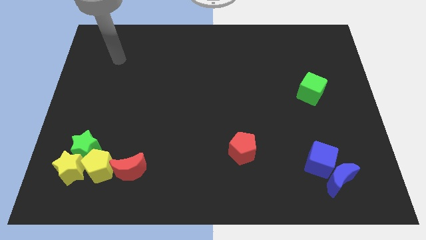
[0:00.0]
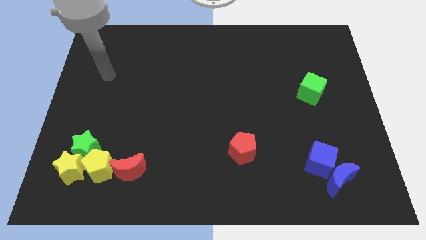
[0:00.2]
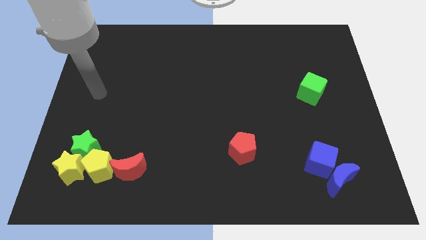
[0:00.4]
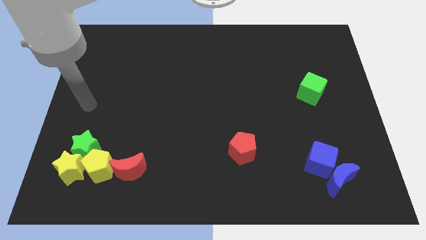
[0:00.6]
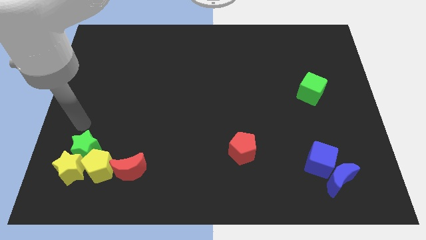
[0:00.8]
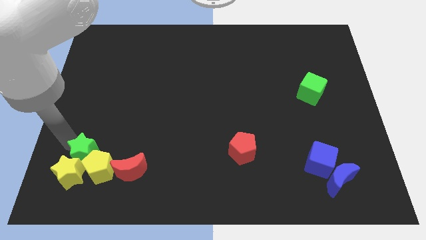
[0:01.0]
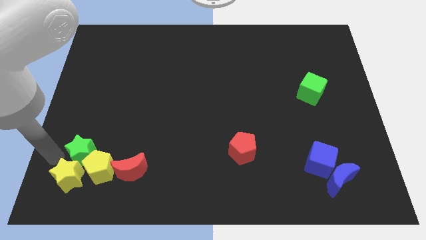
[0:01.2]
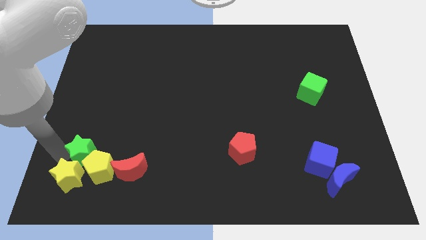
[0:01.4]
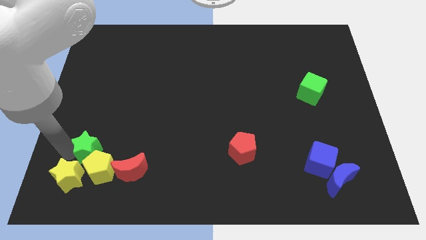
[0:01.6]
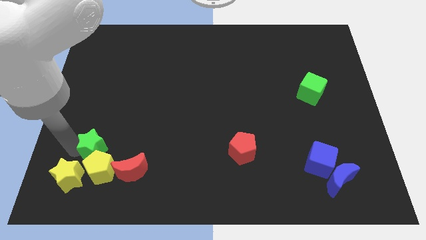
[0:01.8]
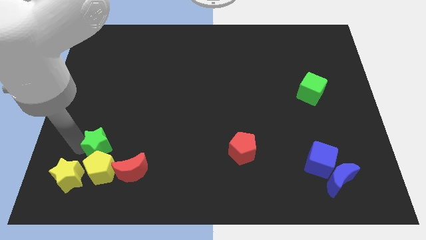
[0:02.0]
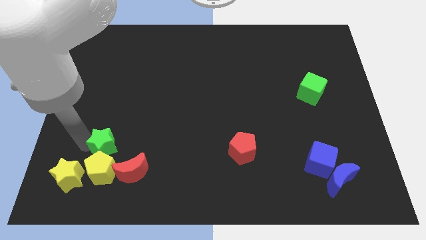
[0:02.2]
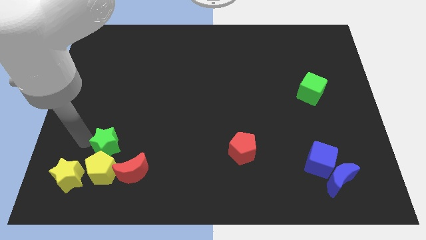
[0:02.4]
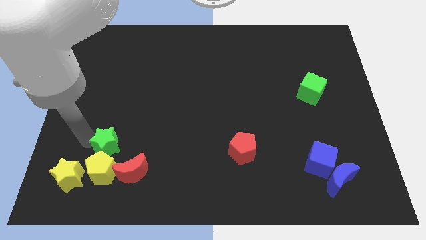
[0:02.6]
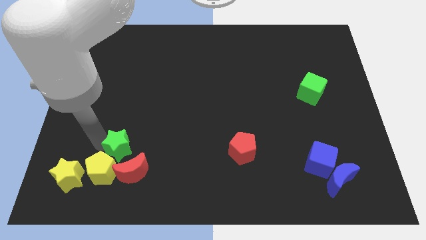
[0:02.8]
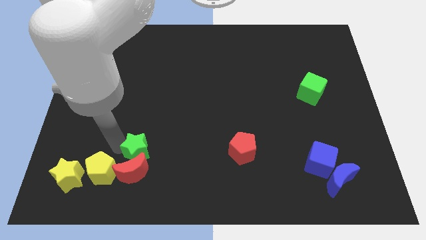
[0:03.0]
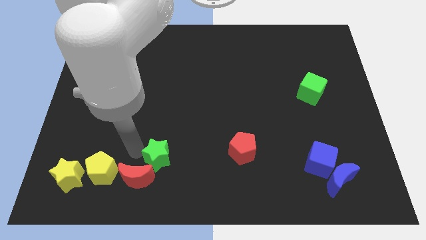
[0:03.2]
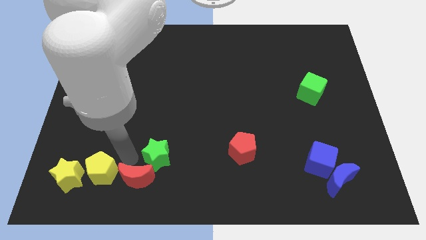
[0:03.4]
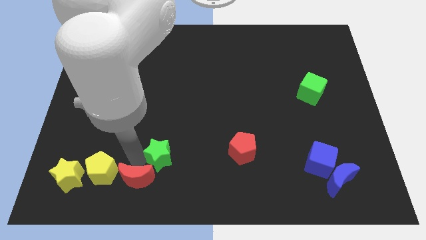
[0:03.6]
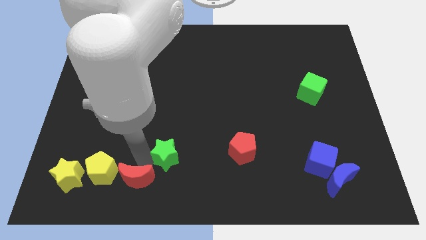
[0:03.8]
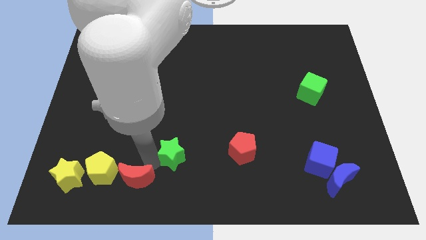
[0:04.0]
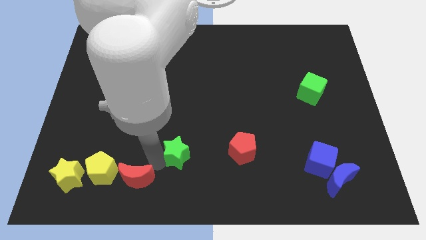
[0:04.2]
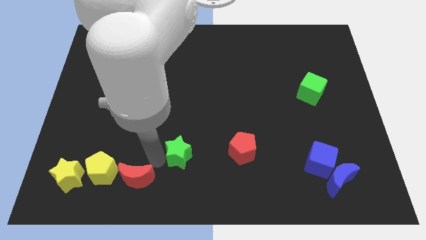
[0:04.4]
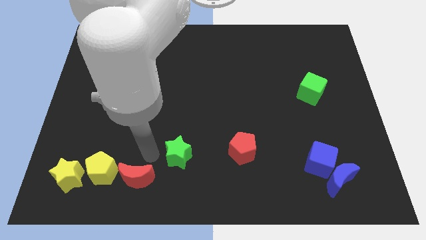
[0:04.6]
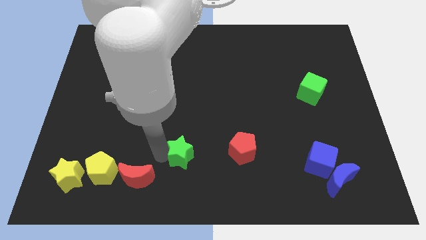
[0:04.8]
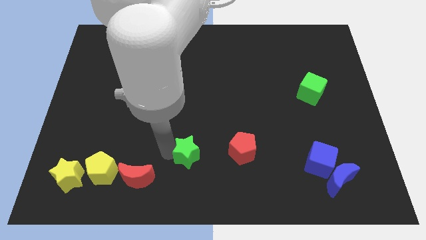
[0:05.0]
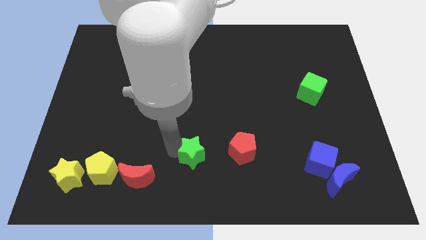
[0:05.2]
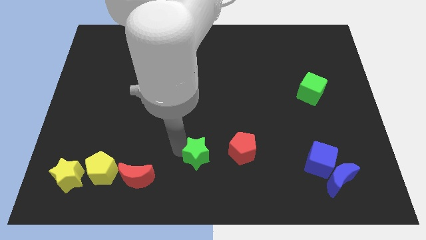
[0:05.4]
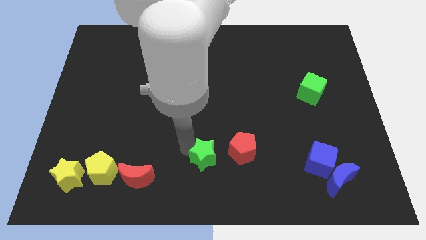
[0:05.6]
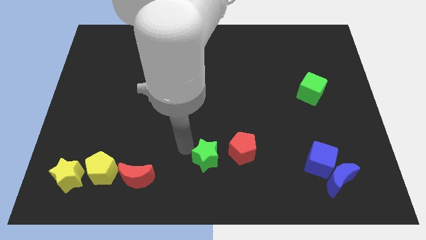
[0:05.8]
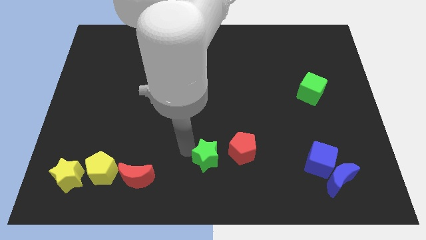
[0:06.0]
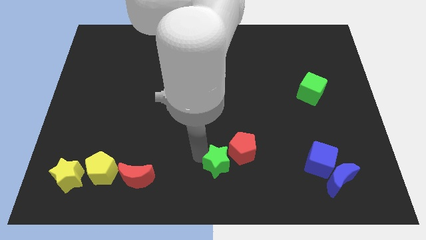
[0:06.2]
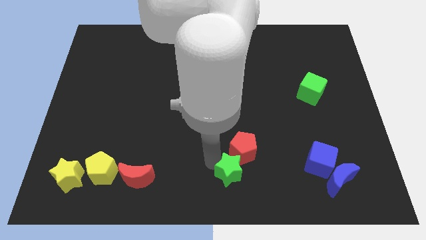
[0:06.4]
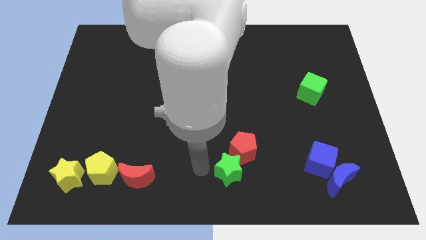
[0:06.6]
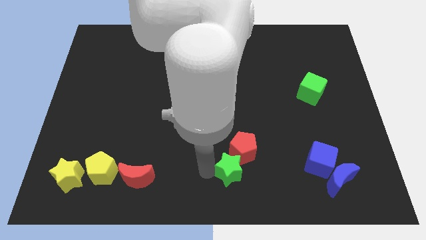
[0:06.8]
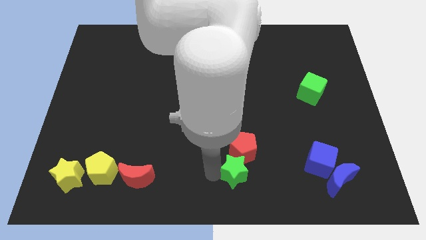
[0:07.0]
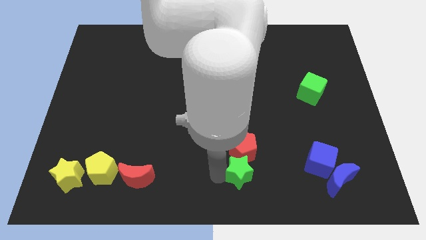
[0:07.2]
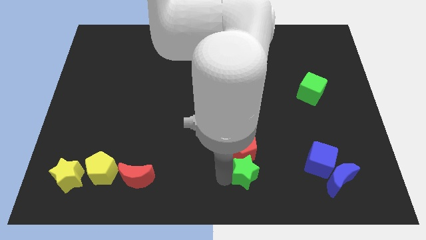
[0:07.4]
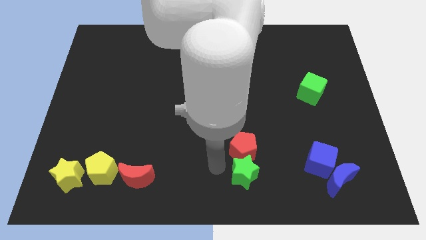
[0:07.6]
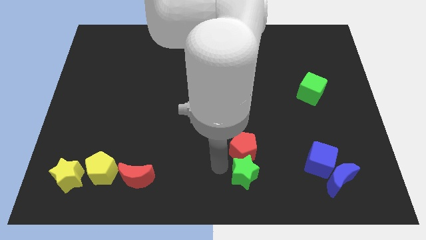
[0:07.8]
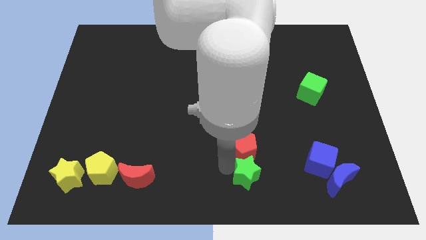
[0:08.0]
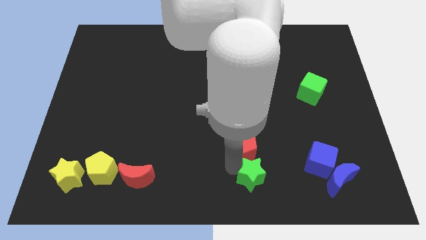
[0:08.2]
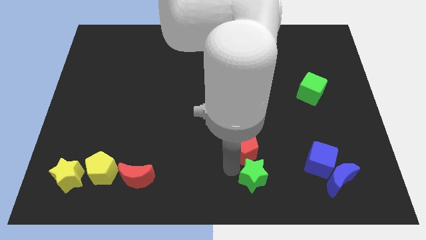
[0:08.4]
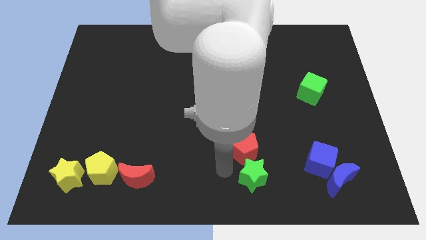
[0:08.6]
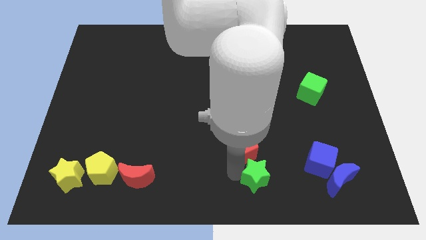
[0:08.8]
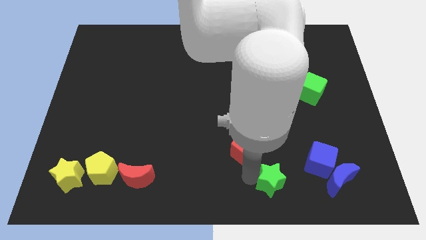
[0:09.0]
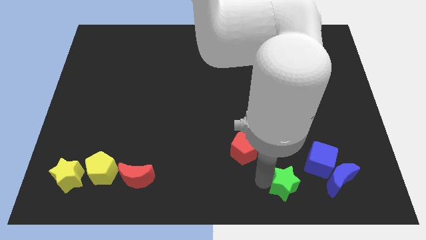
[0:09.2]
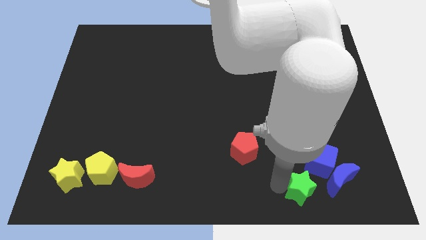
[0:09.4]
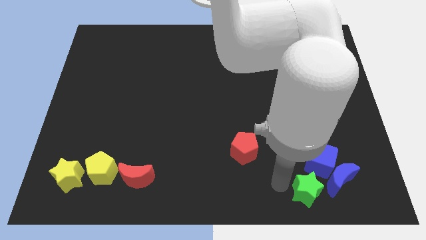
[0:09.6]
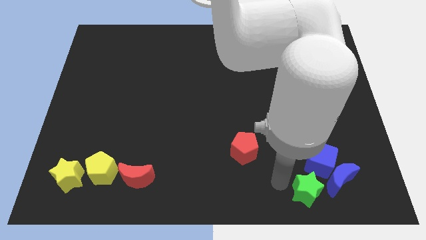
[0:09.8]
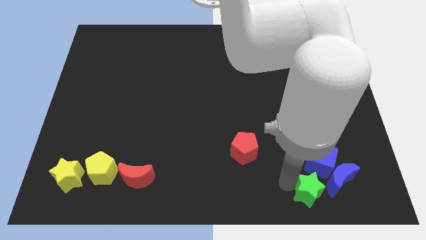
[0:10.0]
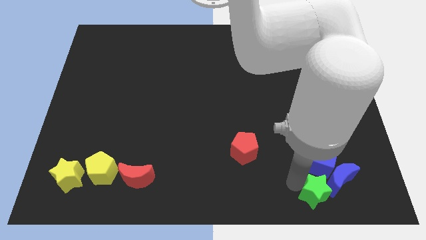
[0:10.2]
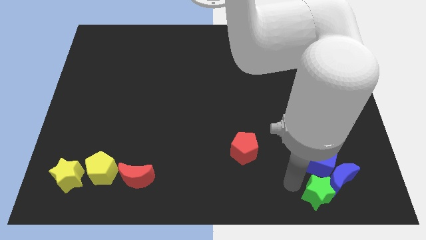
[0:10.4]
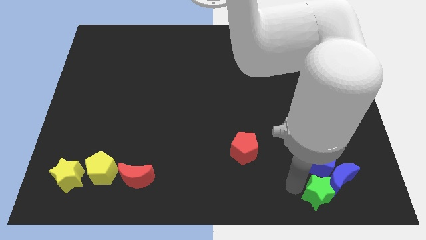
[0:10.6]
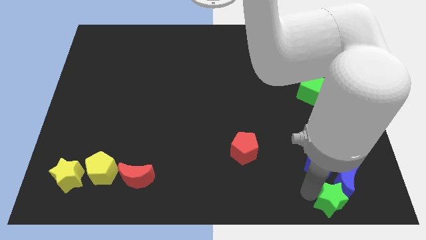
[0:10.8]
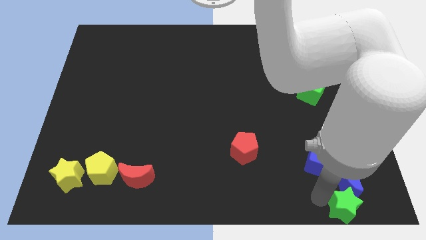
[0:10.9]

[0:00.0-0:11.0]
slide the green star to the bottom right corner

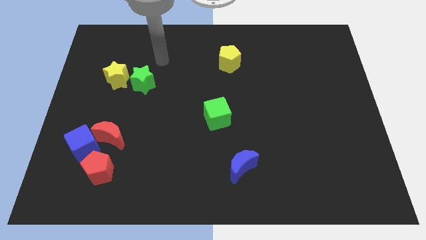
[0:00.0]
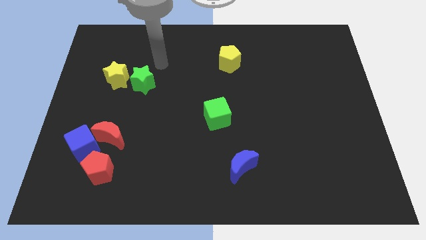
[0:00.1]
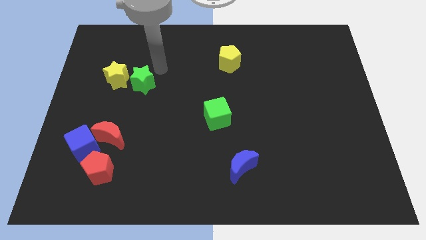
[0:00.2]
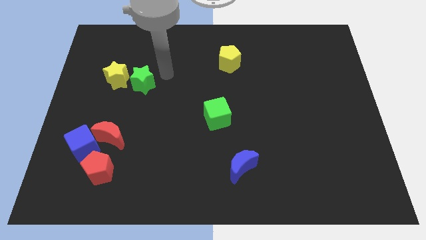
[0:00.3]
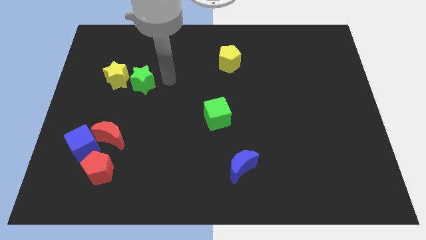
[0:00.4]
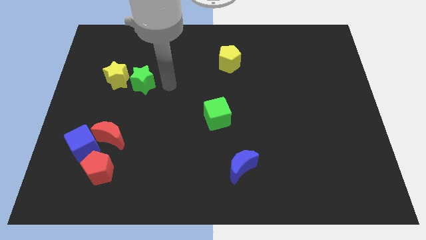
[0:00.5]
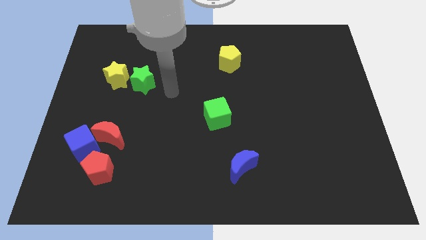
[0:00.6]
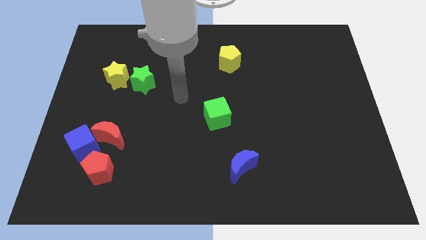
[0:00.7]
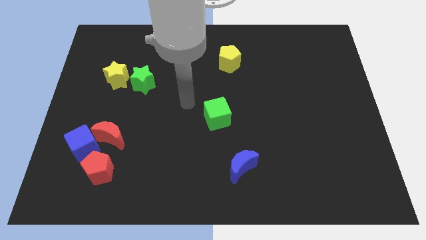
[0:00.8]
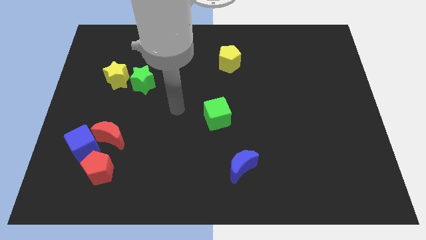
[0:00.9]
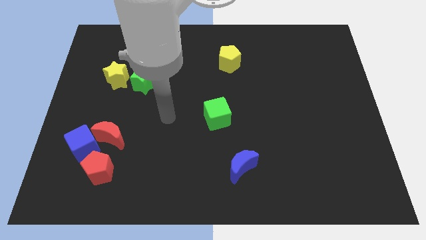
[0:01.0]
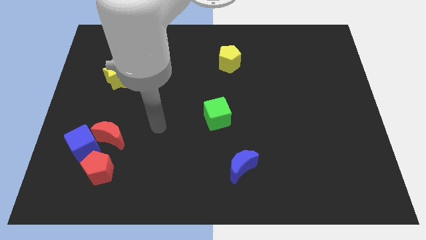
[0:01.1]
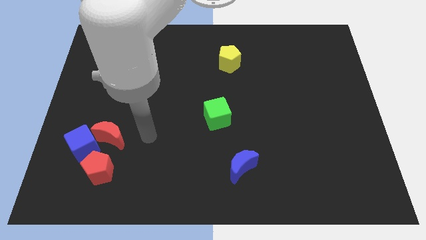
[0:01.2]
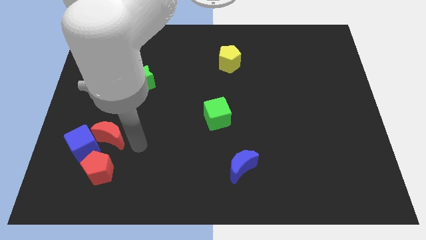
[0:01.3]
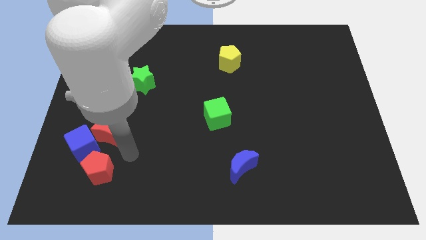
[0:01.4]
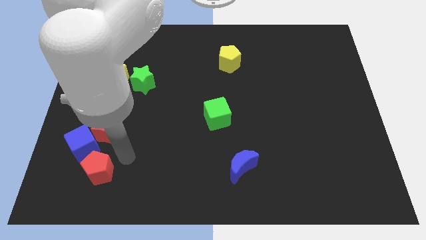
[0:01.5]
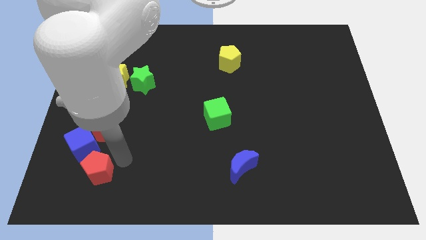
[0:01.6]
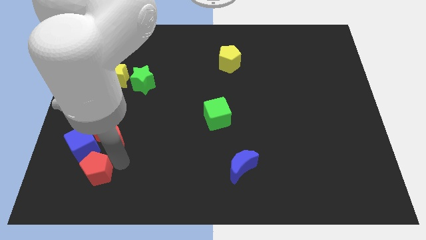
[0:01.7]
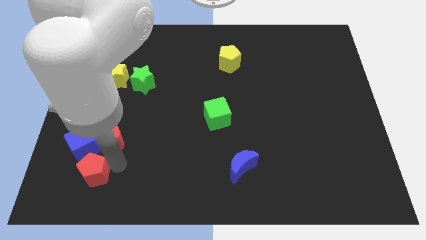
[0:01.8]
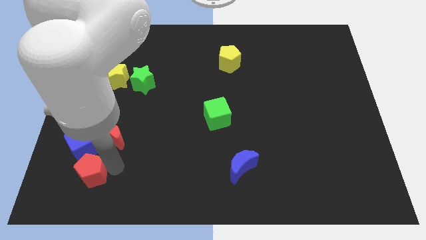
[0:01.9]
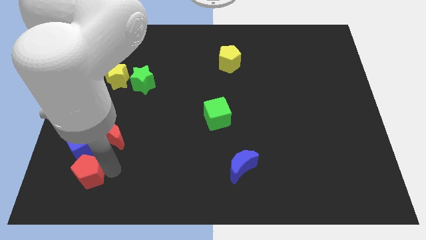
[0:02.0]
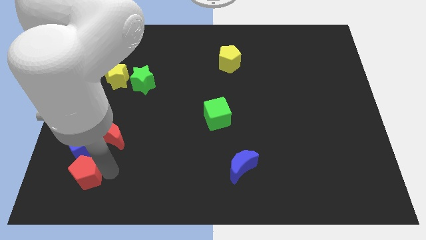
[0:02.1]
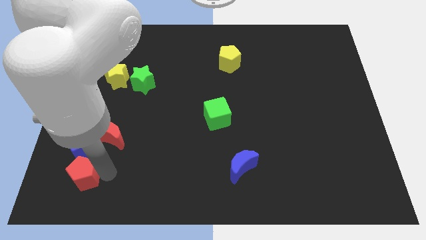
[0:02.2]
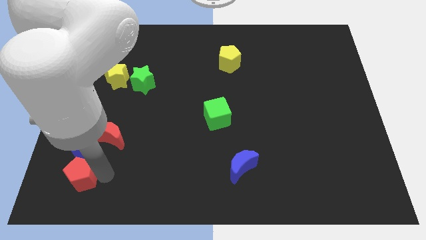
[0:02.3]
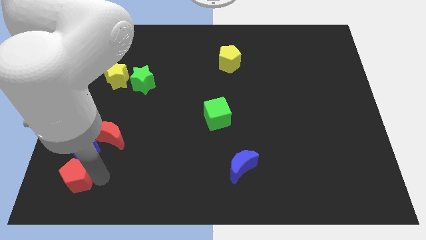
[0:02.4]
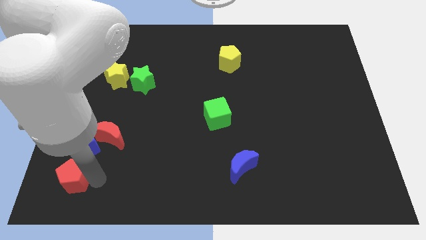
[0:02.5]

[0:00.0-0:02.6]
slide the red pentagon to the bottom left
